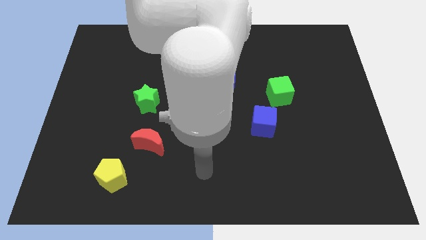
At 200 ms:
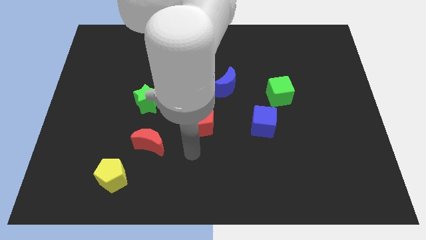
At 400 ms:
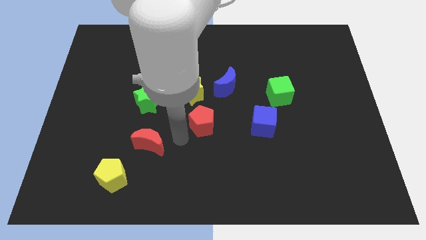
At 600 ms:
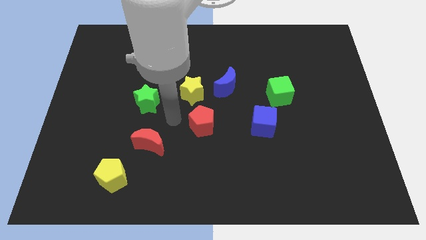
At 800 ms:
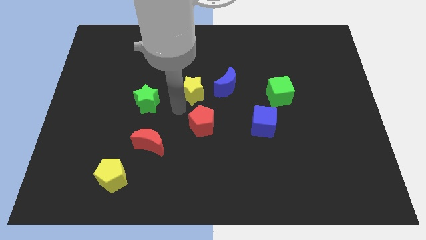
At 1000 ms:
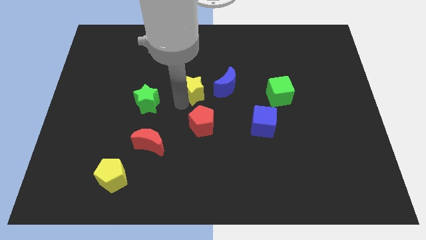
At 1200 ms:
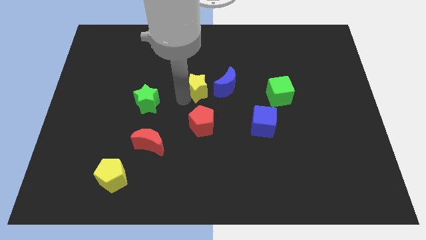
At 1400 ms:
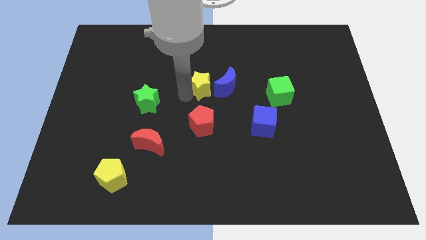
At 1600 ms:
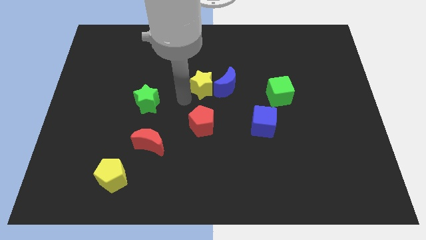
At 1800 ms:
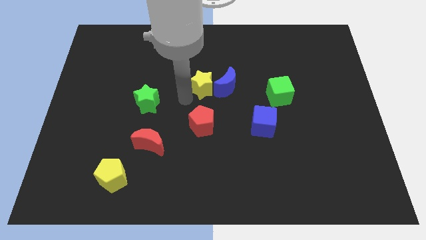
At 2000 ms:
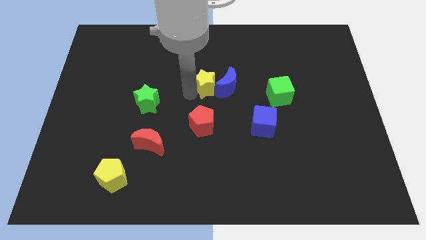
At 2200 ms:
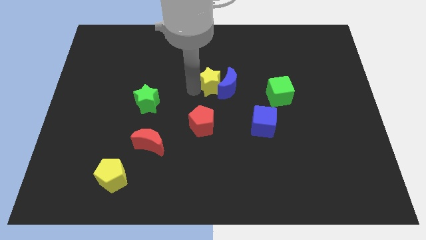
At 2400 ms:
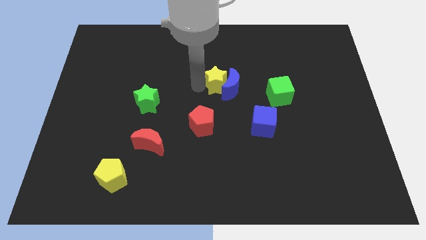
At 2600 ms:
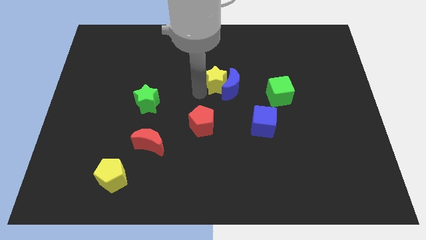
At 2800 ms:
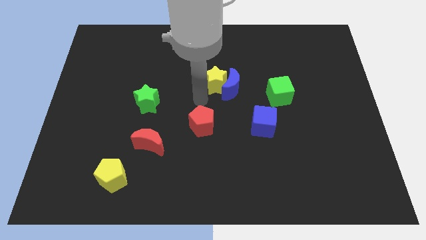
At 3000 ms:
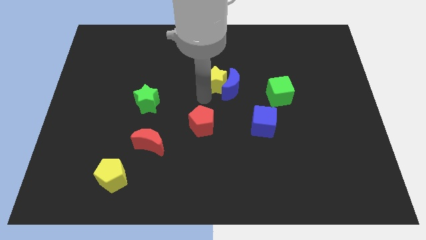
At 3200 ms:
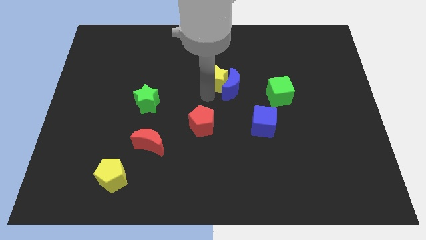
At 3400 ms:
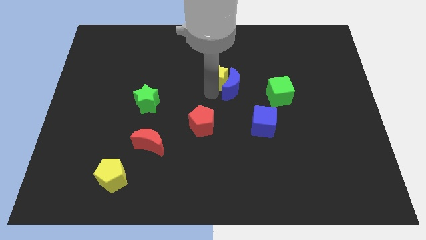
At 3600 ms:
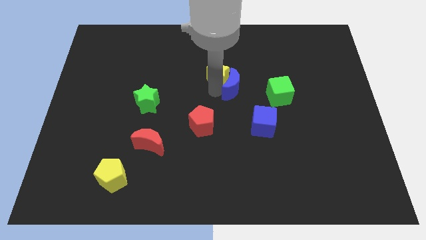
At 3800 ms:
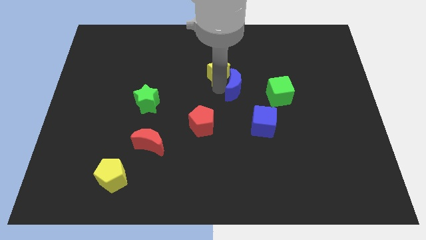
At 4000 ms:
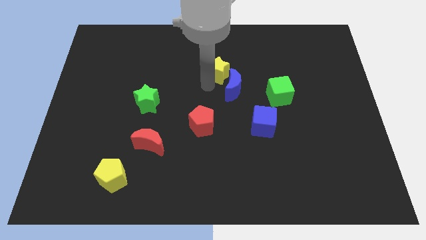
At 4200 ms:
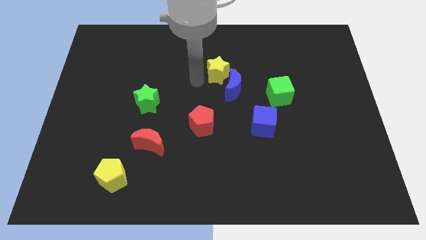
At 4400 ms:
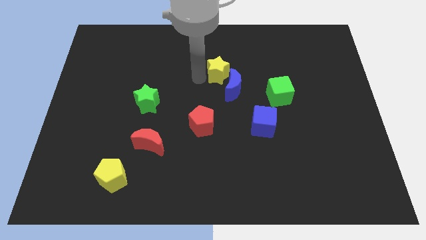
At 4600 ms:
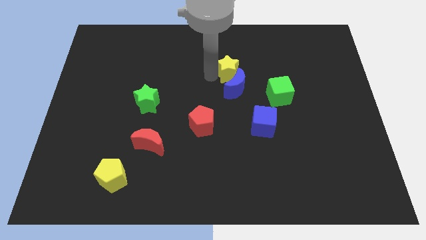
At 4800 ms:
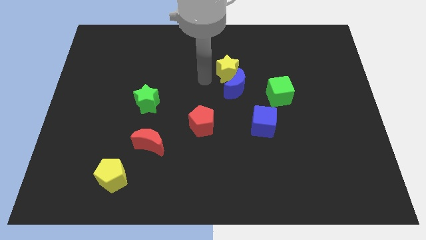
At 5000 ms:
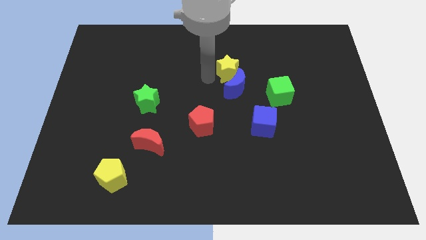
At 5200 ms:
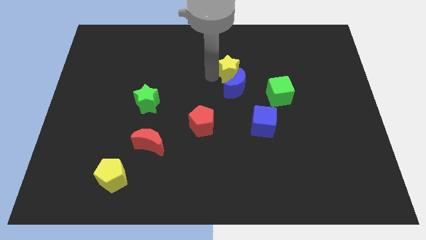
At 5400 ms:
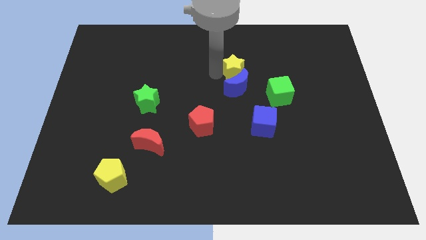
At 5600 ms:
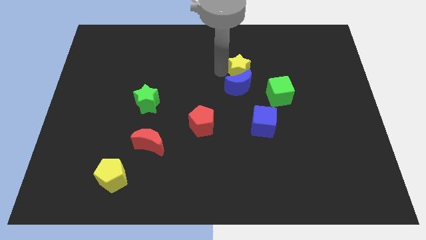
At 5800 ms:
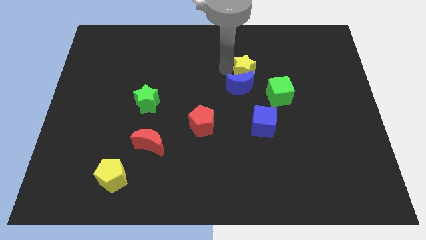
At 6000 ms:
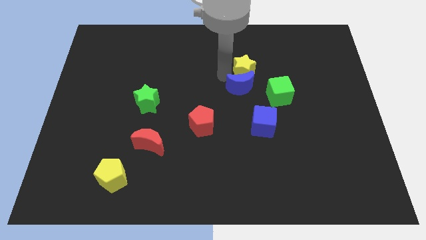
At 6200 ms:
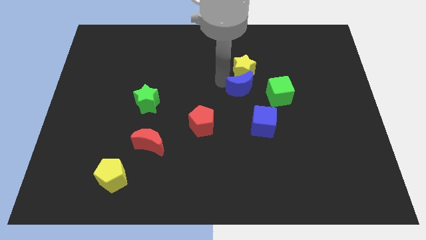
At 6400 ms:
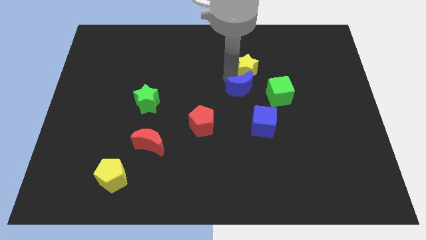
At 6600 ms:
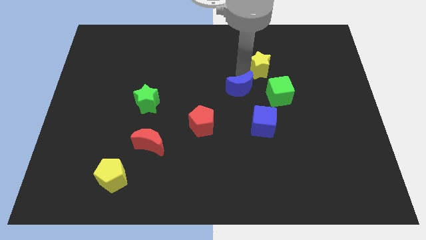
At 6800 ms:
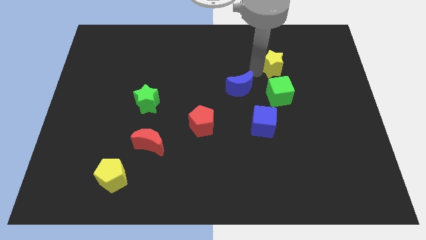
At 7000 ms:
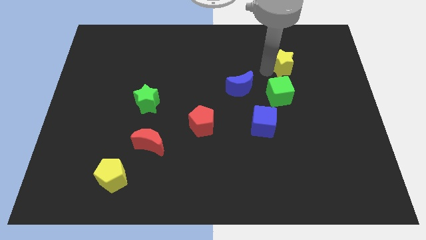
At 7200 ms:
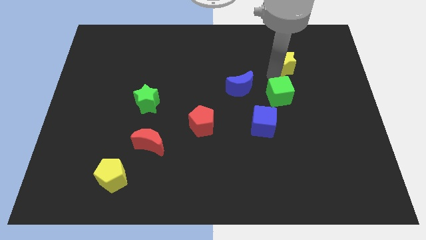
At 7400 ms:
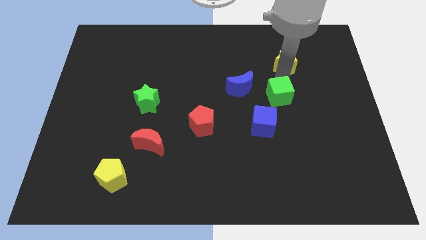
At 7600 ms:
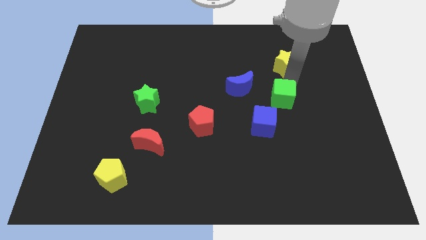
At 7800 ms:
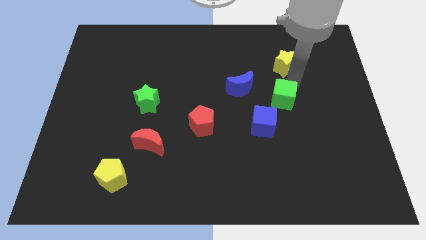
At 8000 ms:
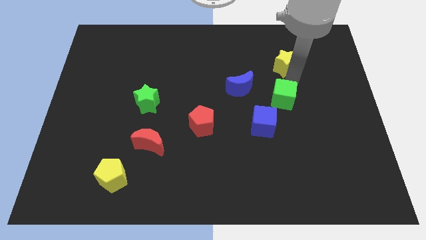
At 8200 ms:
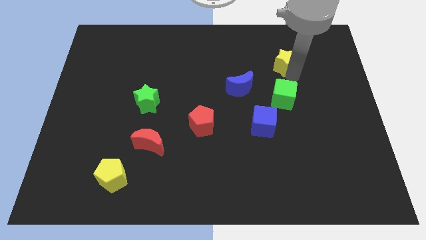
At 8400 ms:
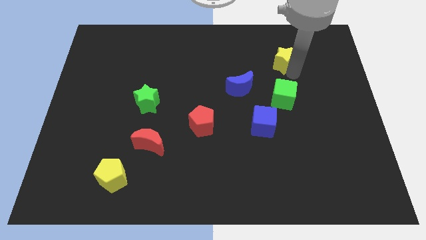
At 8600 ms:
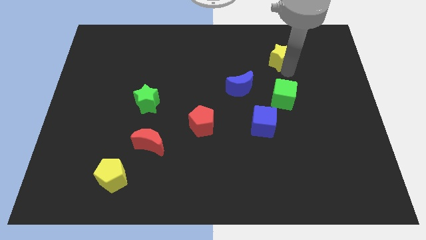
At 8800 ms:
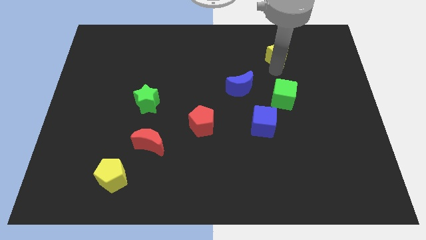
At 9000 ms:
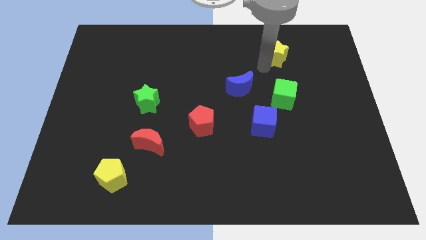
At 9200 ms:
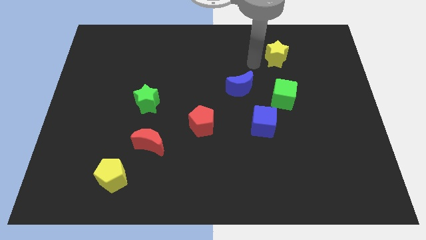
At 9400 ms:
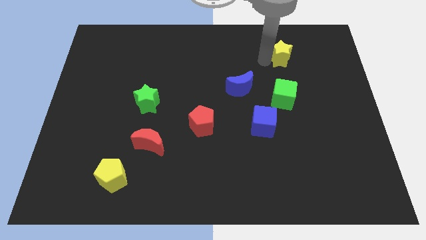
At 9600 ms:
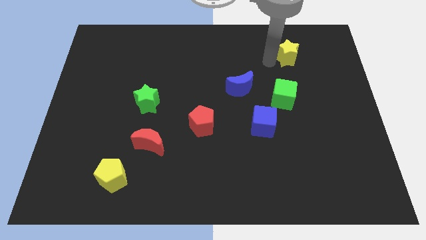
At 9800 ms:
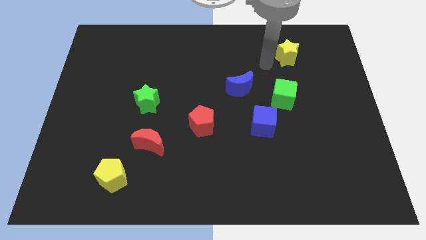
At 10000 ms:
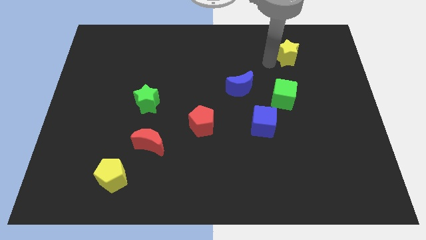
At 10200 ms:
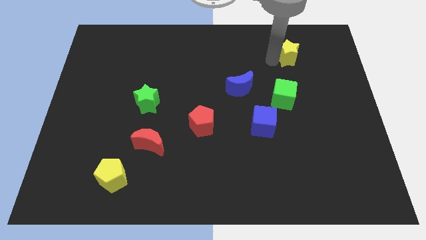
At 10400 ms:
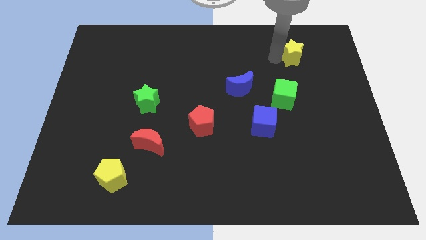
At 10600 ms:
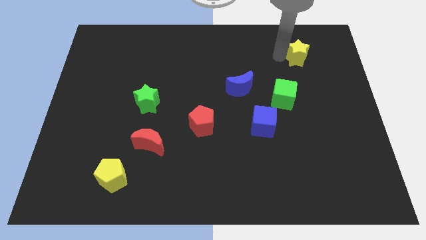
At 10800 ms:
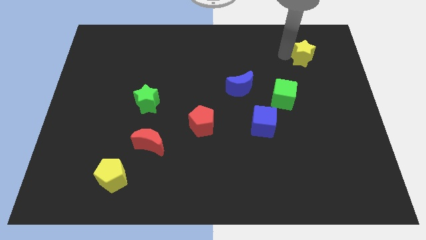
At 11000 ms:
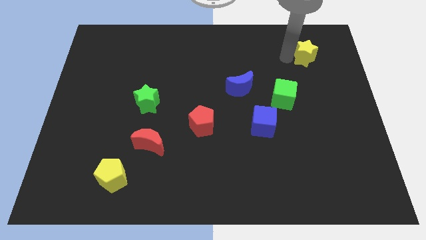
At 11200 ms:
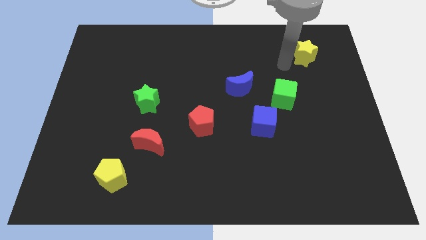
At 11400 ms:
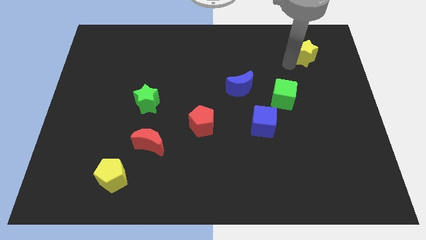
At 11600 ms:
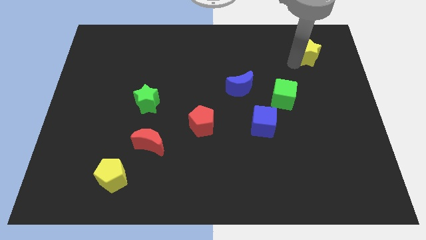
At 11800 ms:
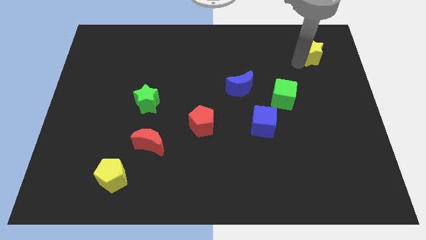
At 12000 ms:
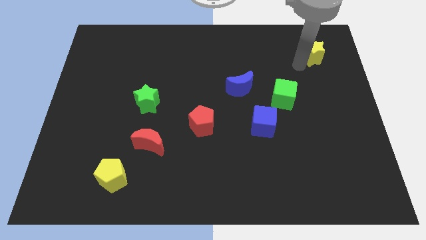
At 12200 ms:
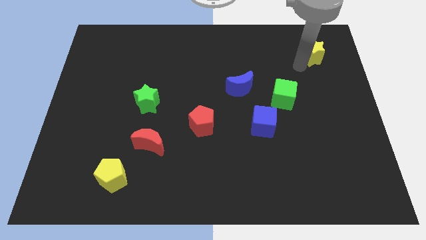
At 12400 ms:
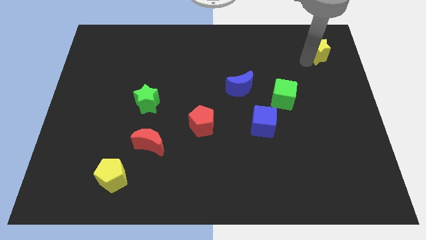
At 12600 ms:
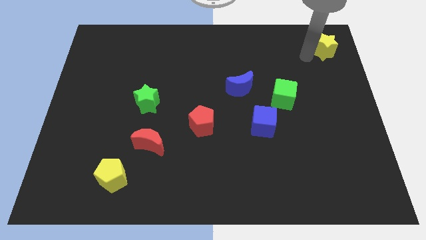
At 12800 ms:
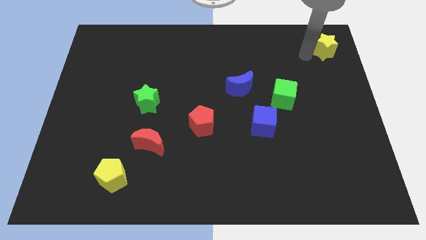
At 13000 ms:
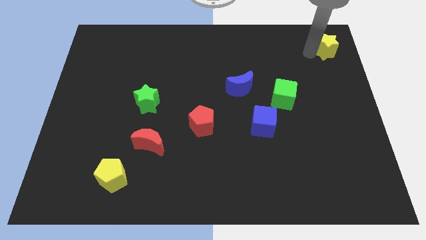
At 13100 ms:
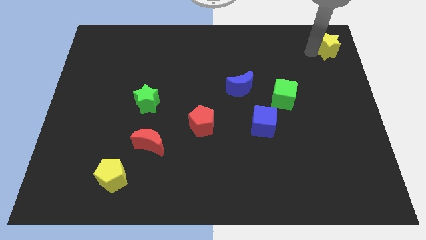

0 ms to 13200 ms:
slide the yellow star to the upper right corner
